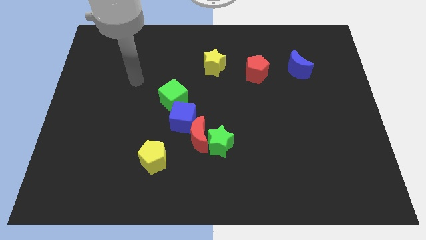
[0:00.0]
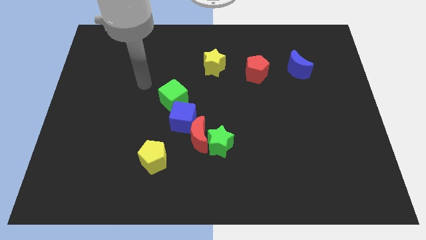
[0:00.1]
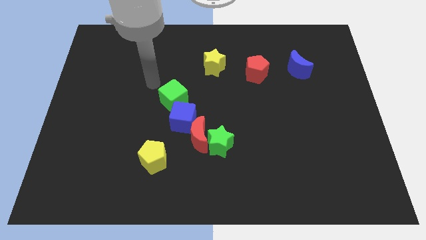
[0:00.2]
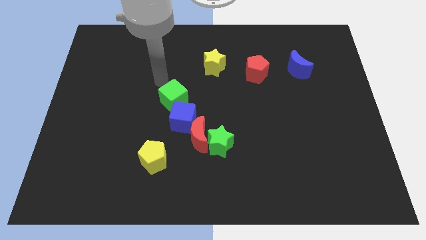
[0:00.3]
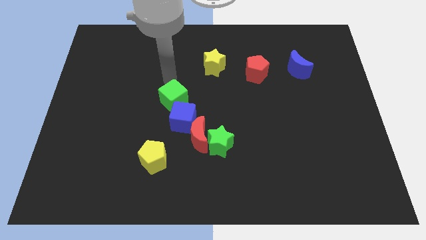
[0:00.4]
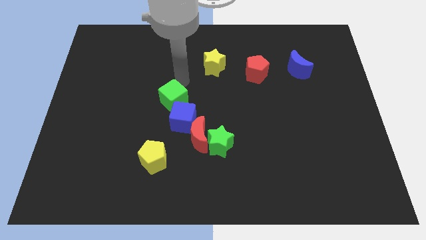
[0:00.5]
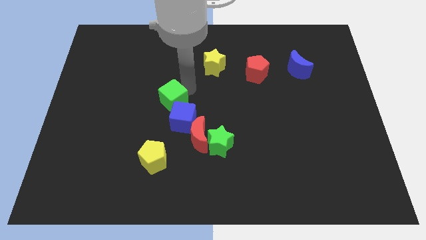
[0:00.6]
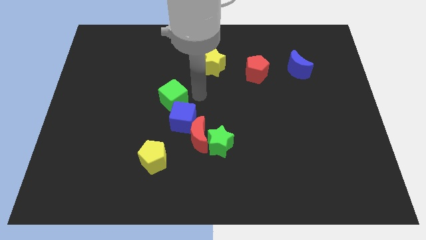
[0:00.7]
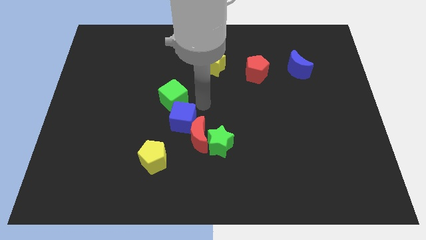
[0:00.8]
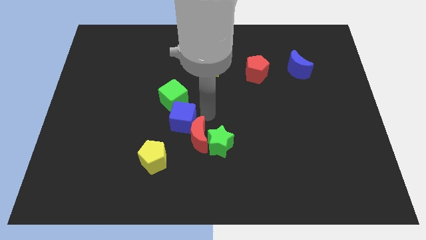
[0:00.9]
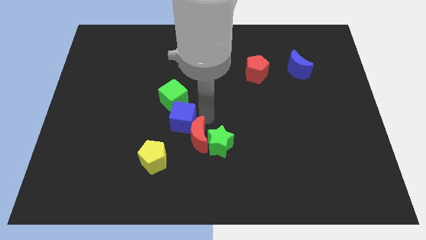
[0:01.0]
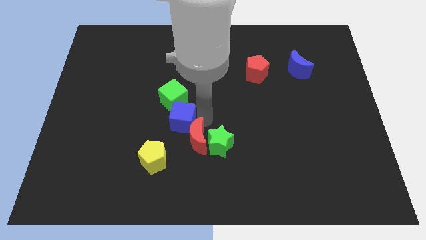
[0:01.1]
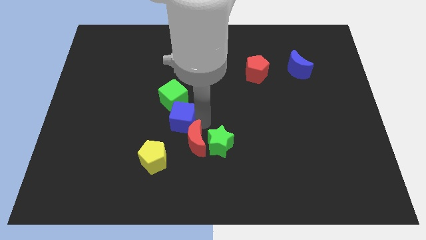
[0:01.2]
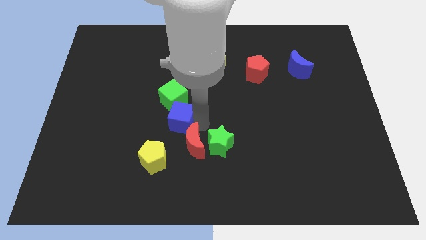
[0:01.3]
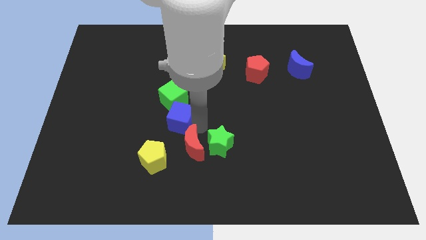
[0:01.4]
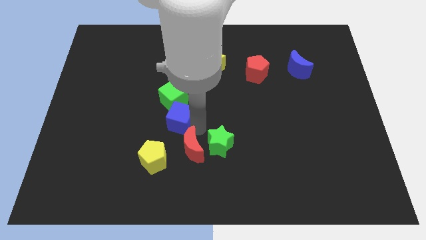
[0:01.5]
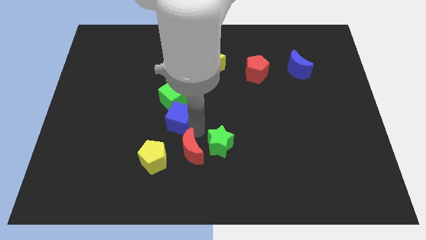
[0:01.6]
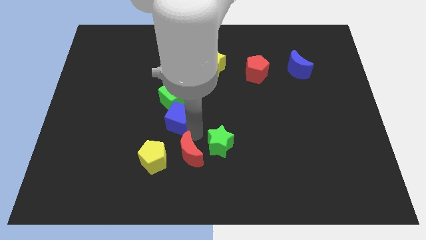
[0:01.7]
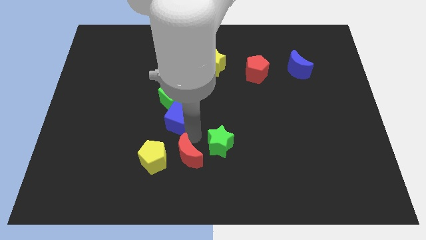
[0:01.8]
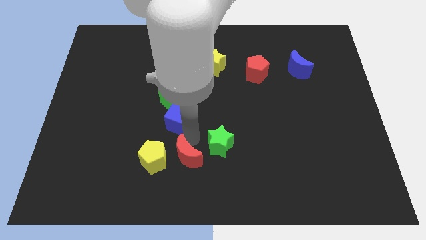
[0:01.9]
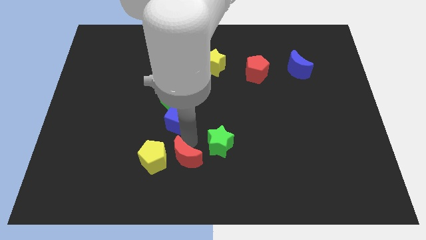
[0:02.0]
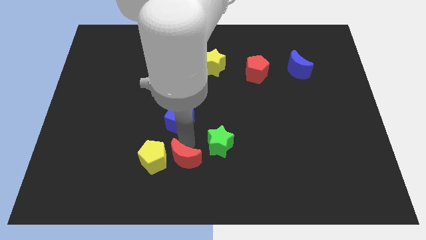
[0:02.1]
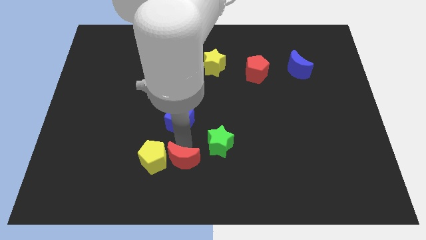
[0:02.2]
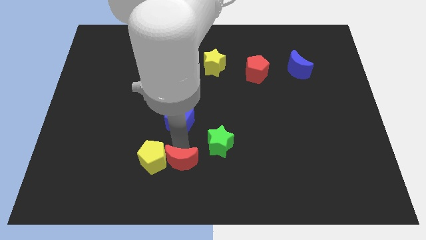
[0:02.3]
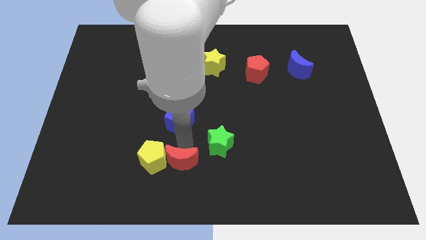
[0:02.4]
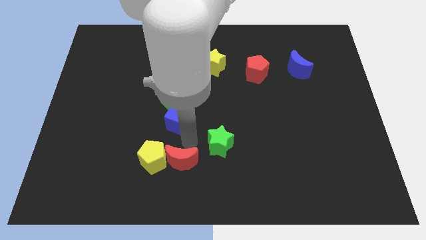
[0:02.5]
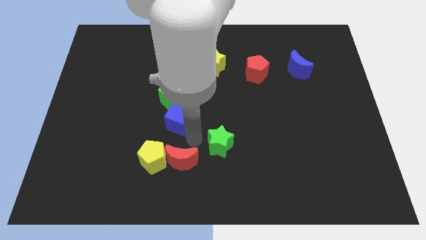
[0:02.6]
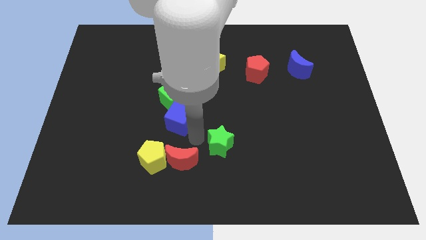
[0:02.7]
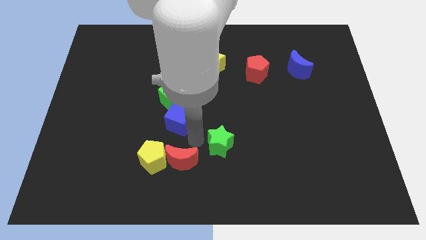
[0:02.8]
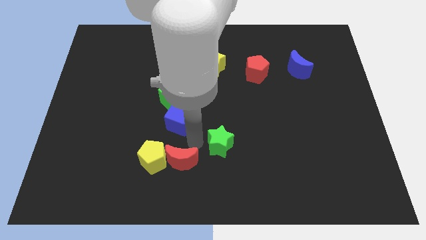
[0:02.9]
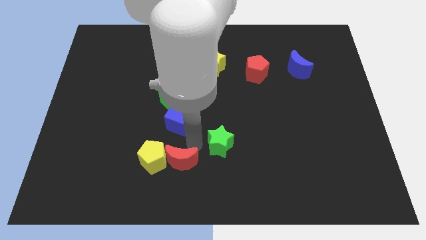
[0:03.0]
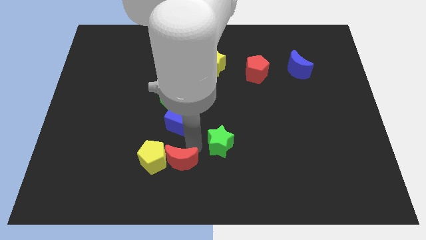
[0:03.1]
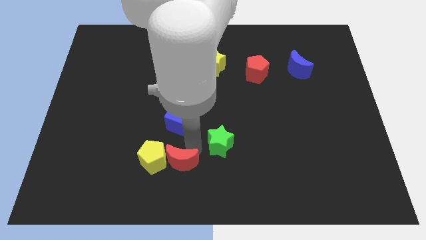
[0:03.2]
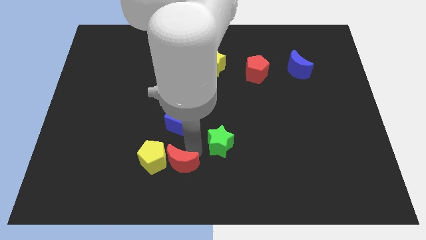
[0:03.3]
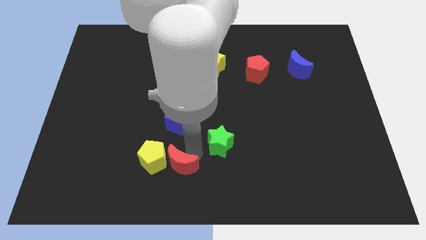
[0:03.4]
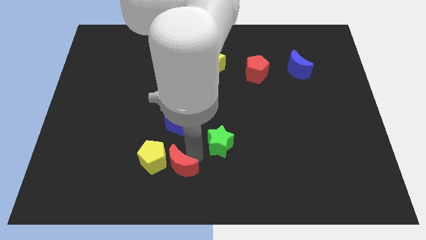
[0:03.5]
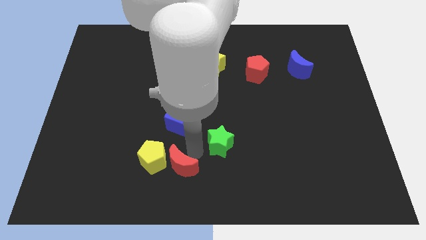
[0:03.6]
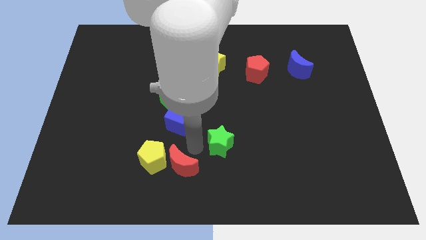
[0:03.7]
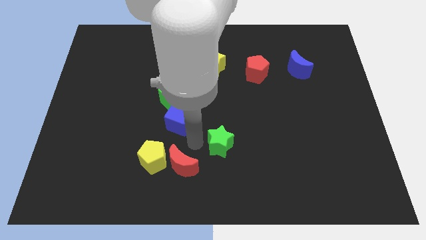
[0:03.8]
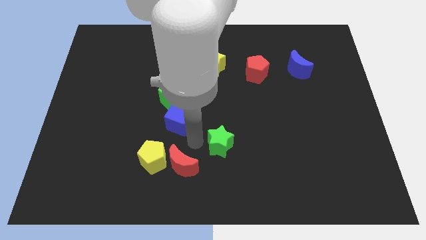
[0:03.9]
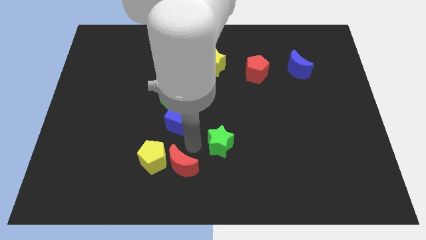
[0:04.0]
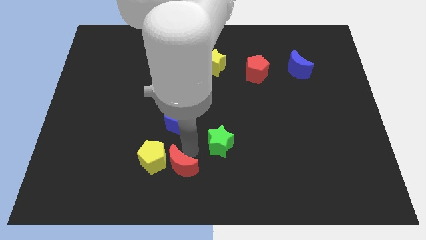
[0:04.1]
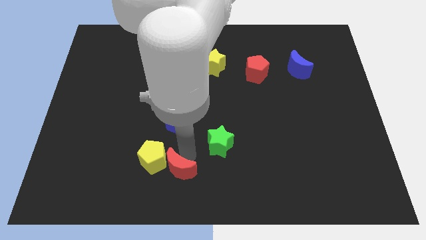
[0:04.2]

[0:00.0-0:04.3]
separate the red moon from the green star and blue cube

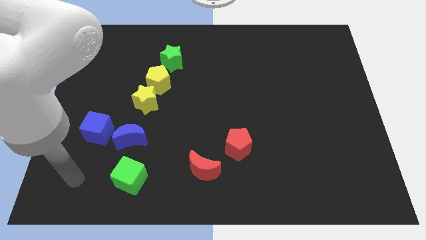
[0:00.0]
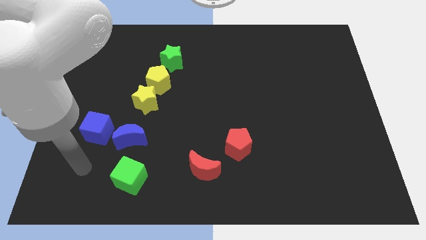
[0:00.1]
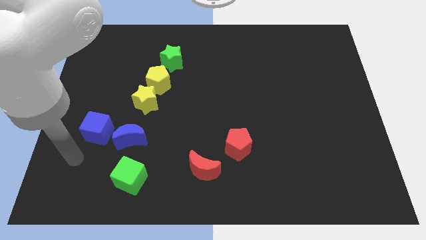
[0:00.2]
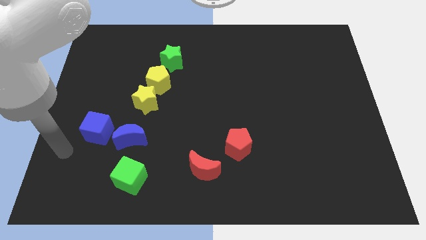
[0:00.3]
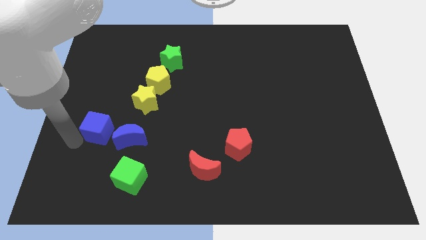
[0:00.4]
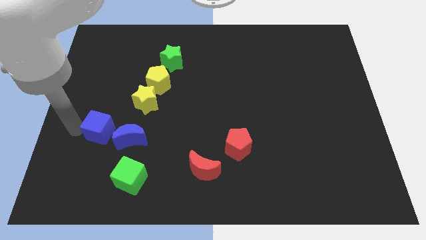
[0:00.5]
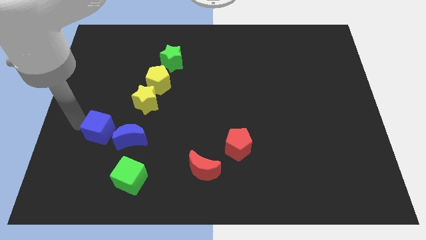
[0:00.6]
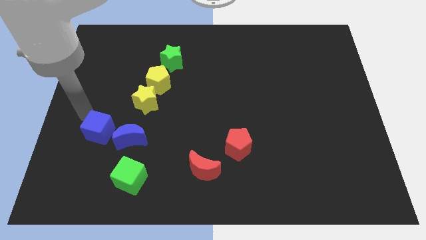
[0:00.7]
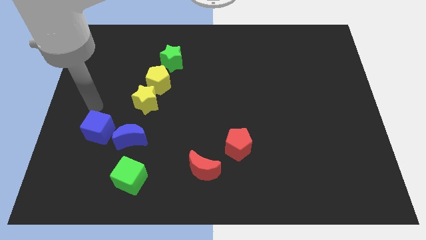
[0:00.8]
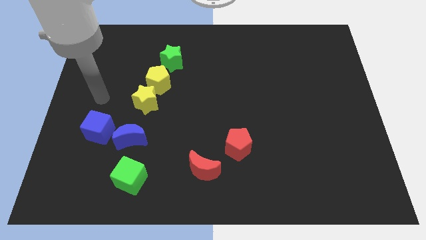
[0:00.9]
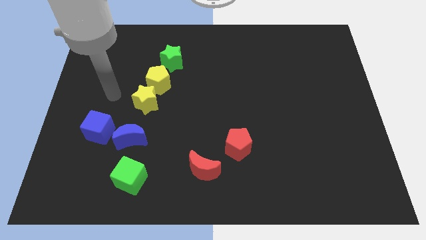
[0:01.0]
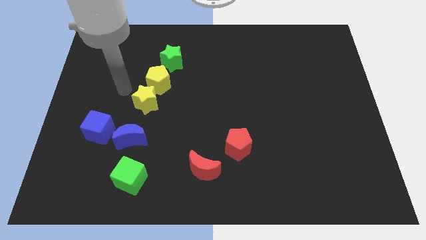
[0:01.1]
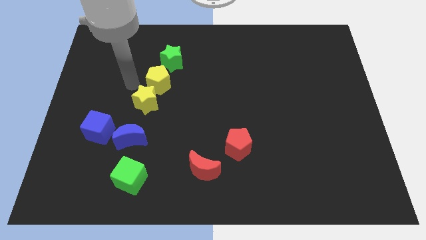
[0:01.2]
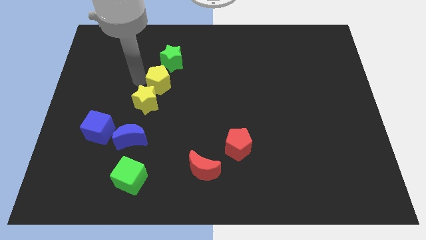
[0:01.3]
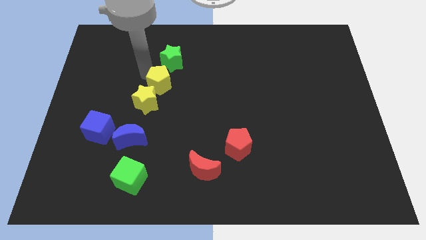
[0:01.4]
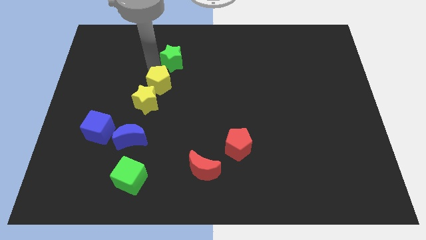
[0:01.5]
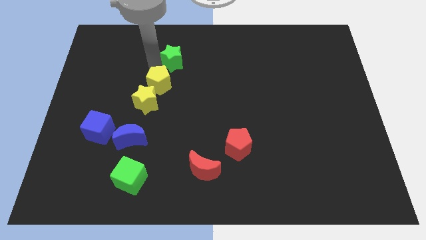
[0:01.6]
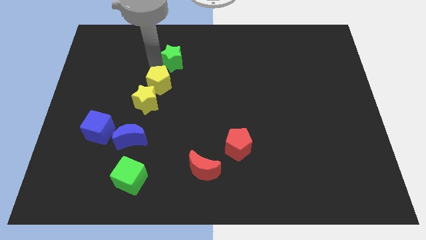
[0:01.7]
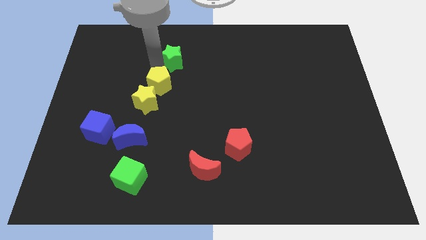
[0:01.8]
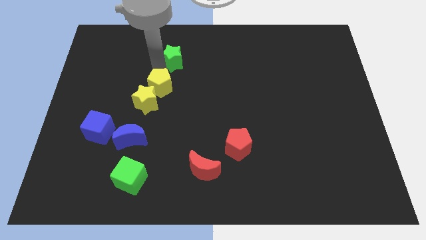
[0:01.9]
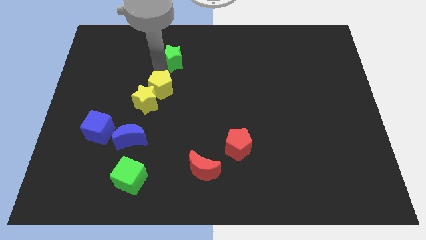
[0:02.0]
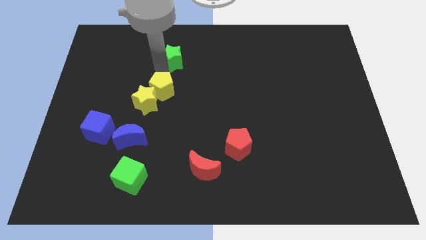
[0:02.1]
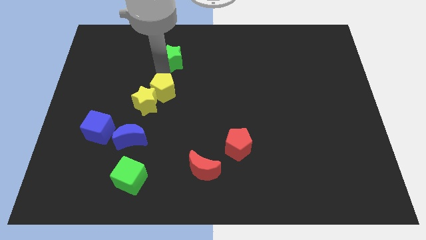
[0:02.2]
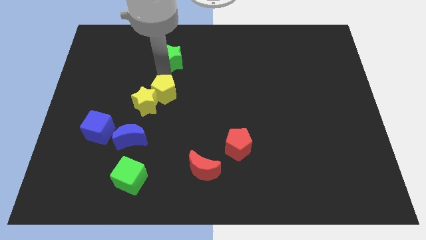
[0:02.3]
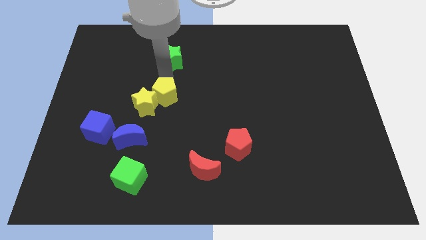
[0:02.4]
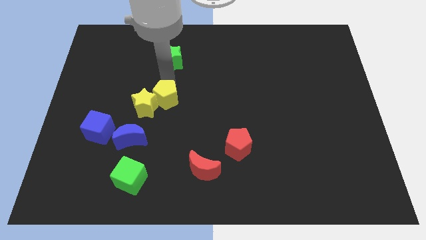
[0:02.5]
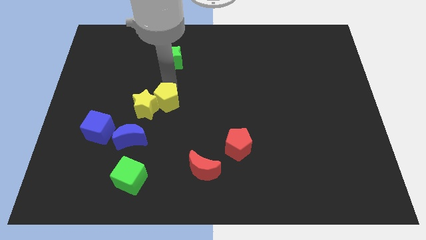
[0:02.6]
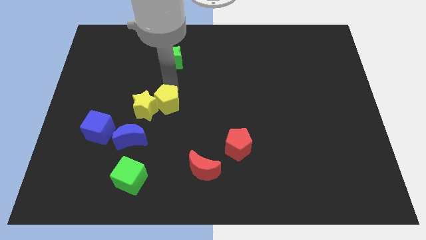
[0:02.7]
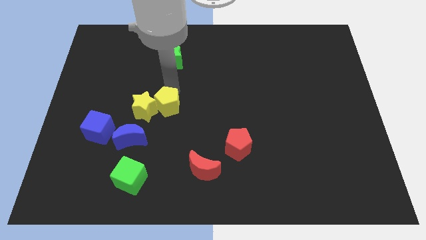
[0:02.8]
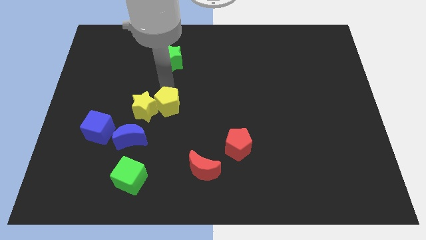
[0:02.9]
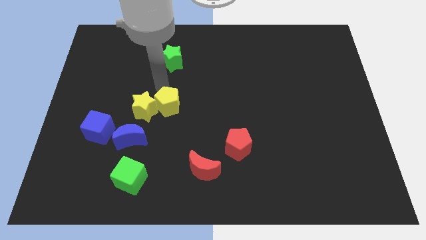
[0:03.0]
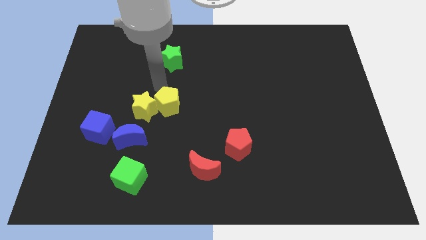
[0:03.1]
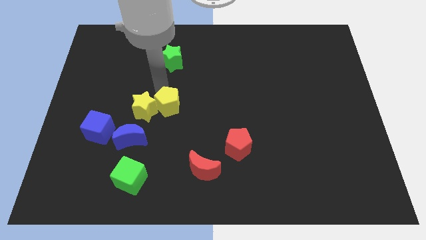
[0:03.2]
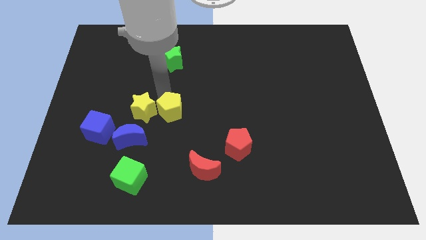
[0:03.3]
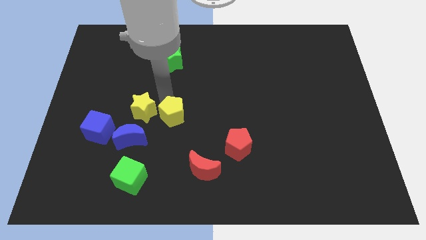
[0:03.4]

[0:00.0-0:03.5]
move the yellow pentagon away from the yellow star and green star

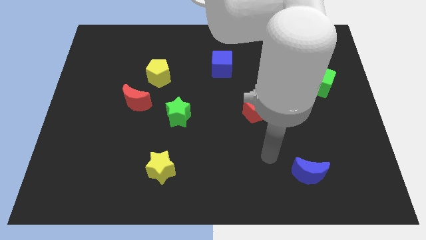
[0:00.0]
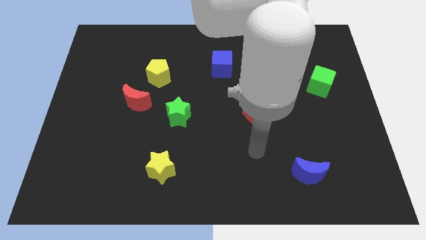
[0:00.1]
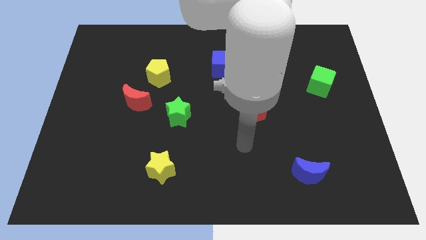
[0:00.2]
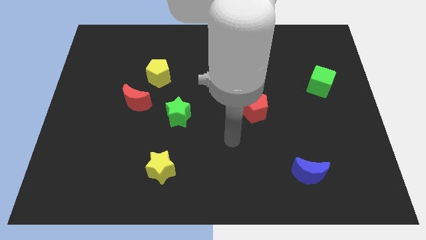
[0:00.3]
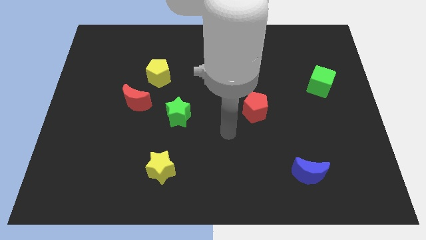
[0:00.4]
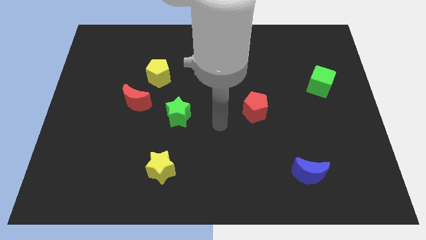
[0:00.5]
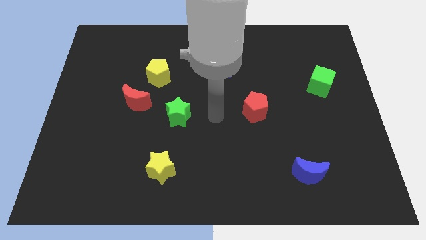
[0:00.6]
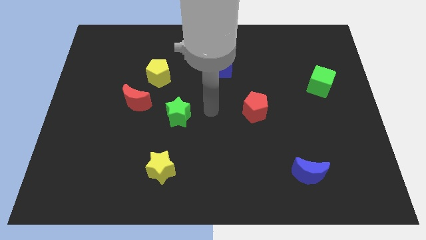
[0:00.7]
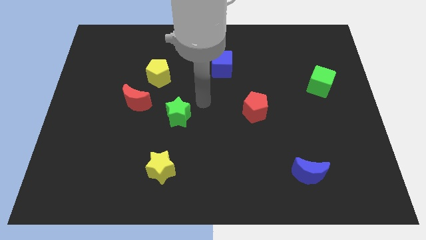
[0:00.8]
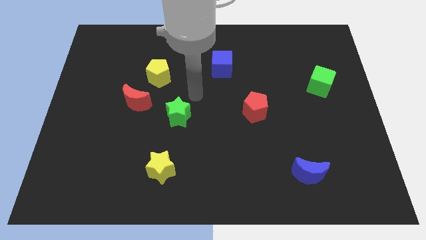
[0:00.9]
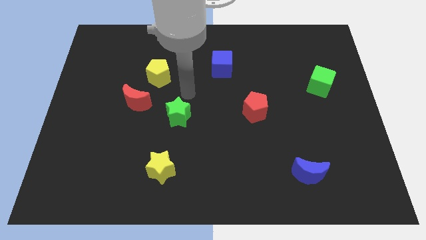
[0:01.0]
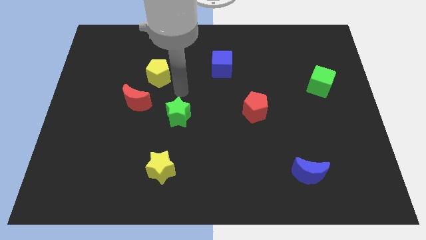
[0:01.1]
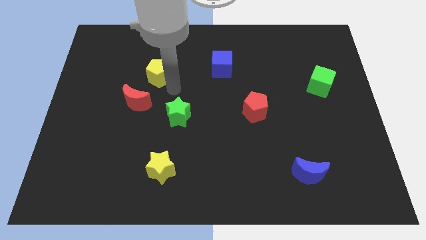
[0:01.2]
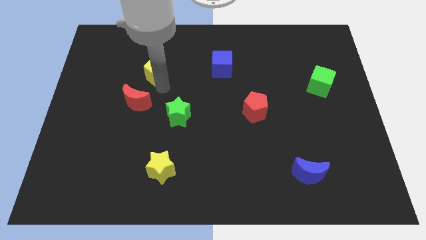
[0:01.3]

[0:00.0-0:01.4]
move the red moon away from the yellow pentagon
